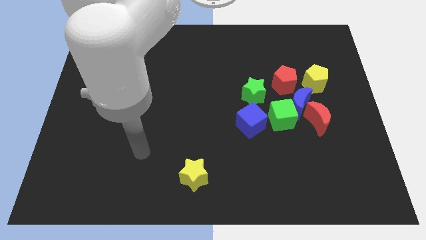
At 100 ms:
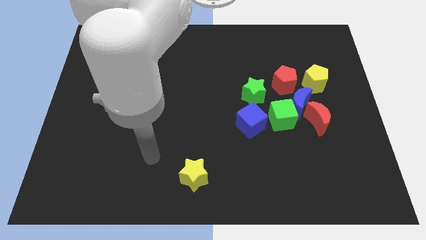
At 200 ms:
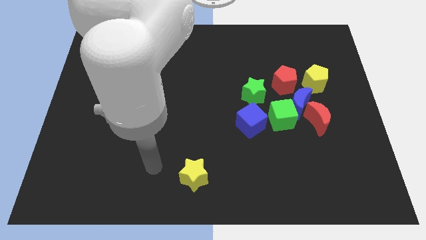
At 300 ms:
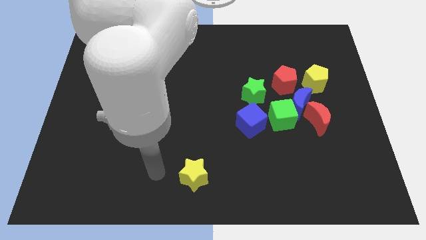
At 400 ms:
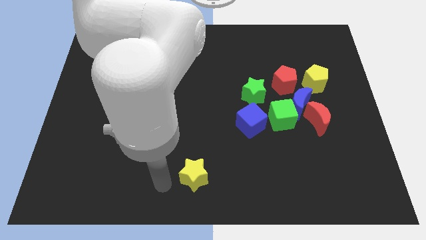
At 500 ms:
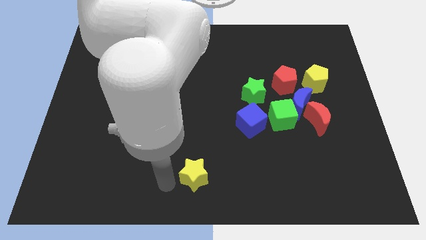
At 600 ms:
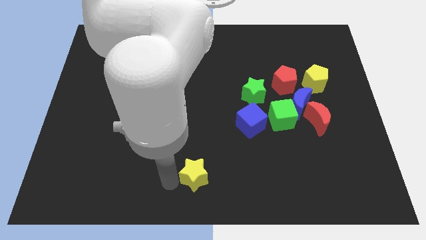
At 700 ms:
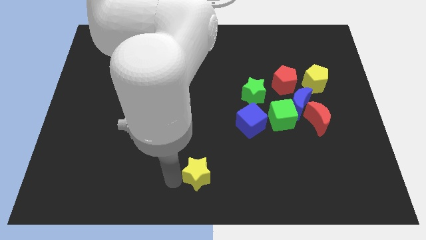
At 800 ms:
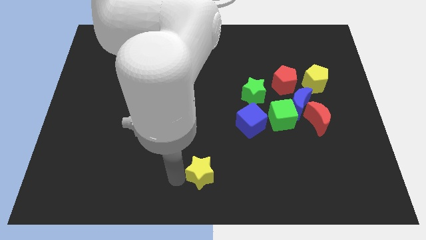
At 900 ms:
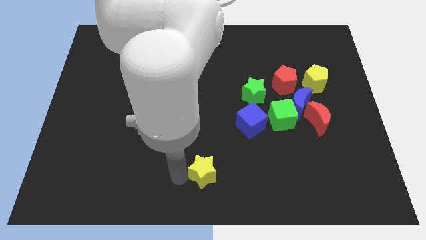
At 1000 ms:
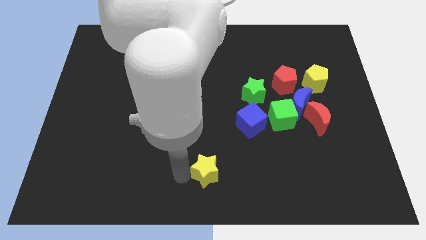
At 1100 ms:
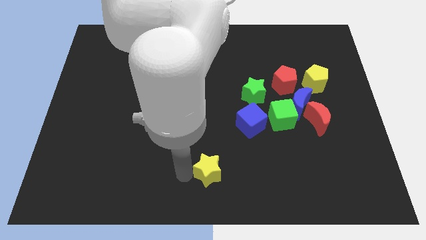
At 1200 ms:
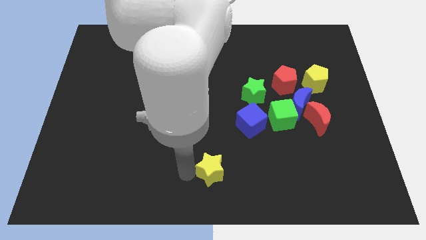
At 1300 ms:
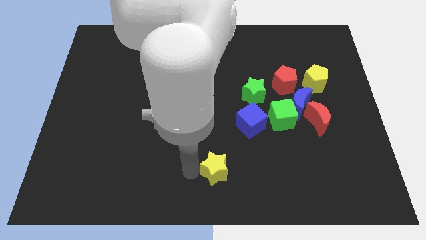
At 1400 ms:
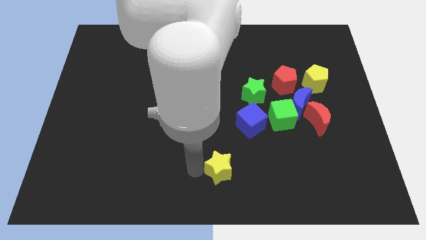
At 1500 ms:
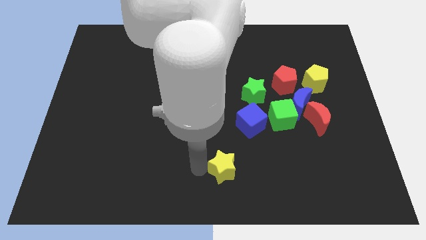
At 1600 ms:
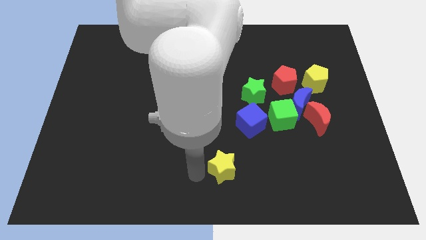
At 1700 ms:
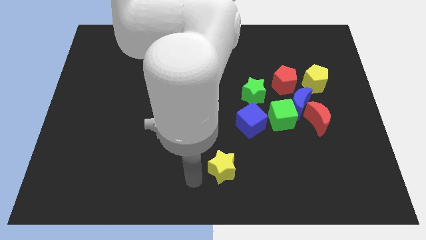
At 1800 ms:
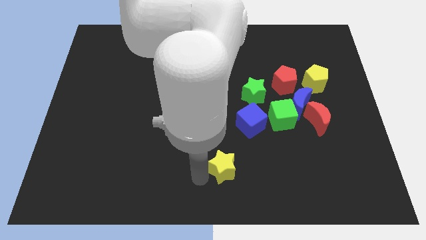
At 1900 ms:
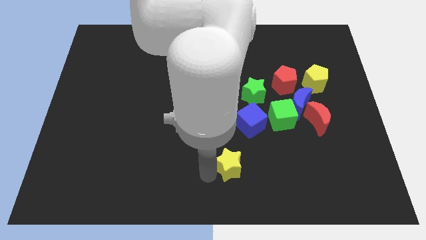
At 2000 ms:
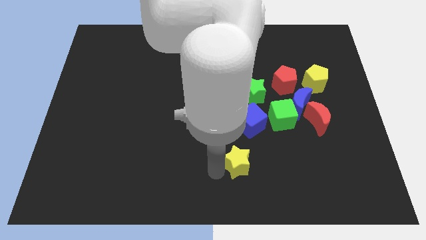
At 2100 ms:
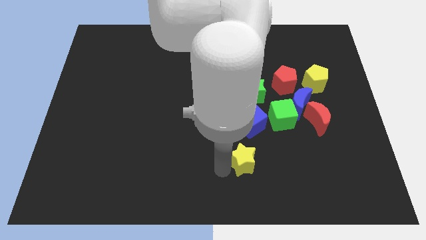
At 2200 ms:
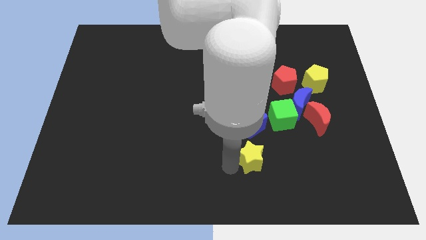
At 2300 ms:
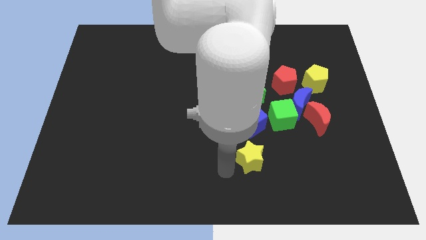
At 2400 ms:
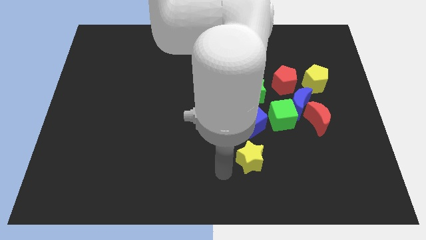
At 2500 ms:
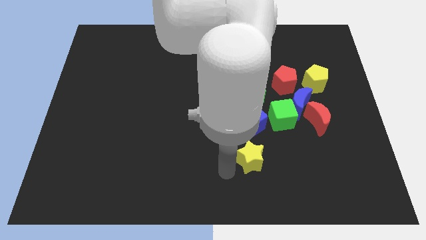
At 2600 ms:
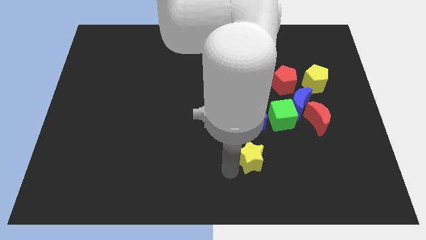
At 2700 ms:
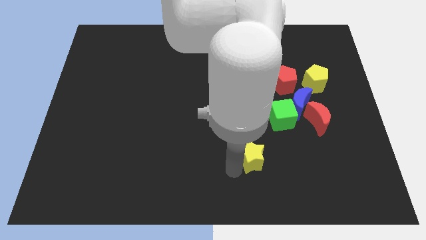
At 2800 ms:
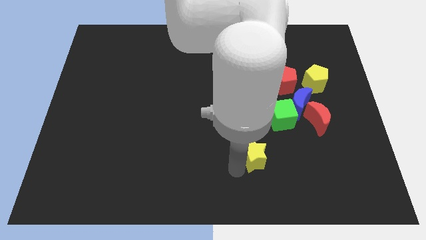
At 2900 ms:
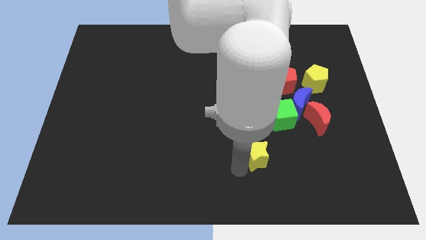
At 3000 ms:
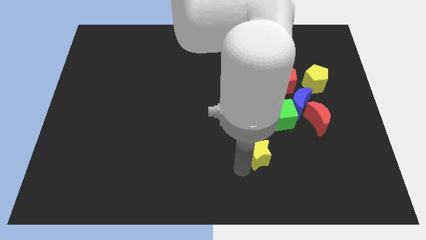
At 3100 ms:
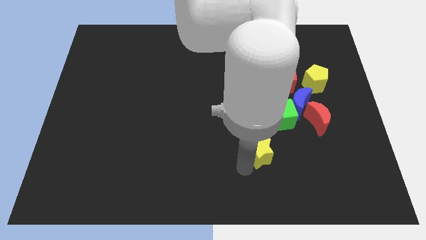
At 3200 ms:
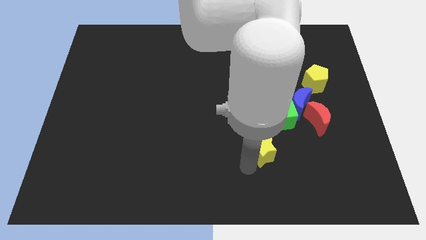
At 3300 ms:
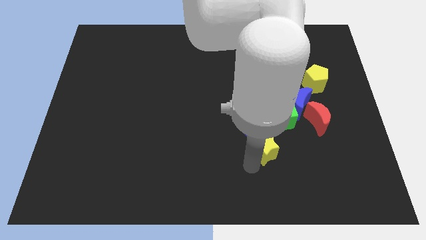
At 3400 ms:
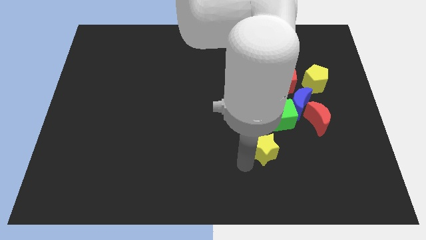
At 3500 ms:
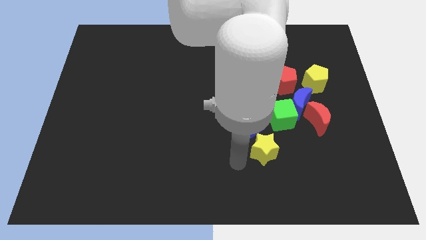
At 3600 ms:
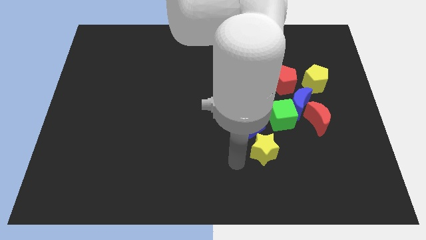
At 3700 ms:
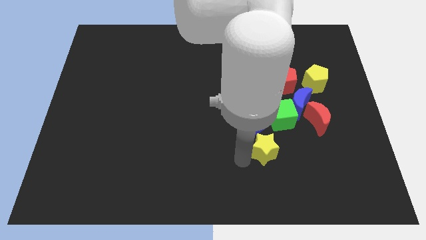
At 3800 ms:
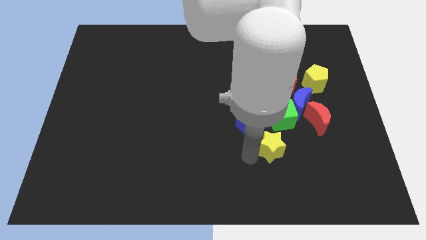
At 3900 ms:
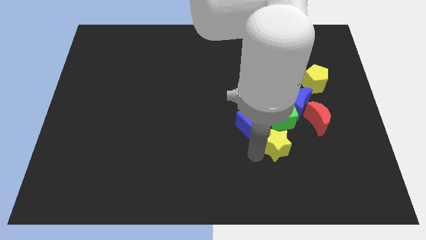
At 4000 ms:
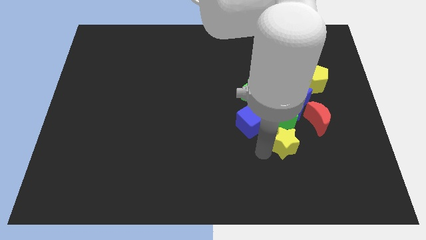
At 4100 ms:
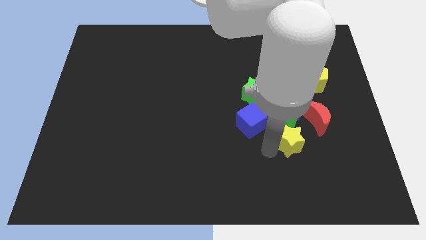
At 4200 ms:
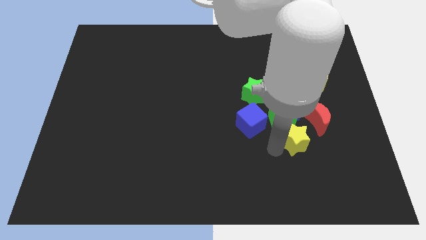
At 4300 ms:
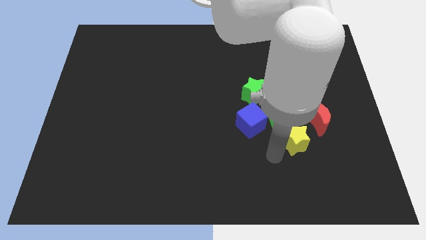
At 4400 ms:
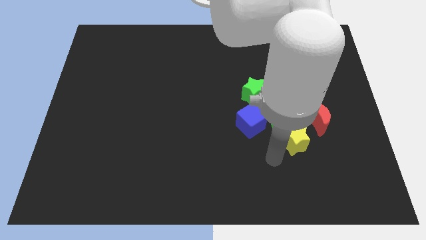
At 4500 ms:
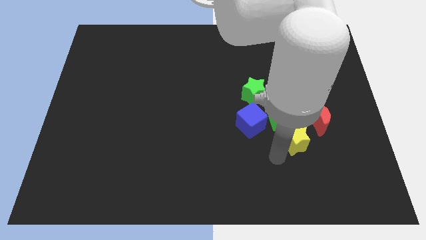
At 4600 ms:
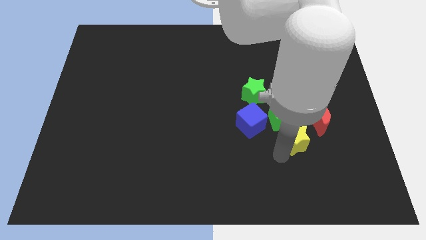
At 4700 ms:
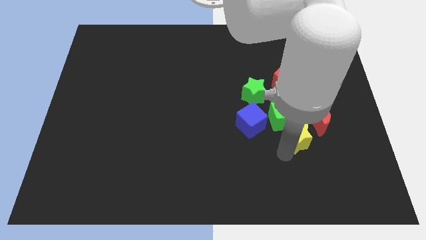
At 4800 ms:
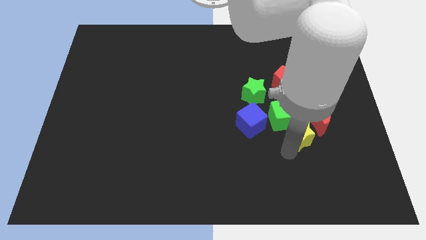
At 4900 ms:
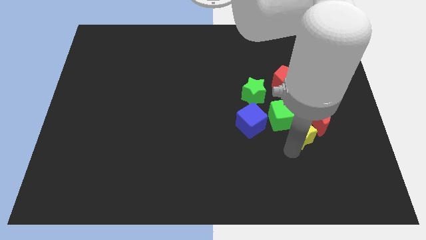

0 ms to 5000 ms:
put the yellow star next to the red moon

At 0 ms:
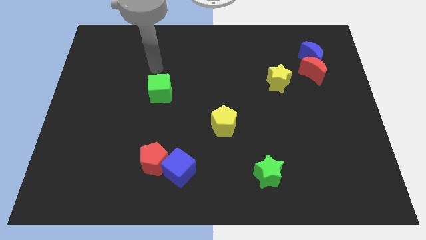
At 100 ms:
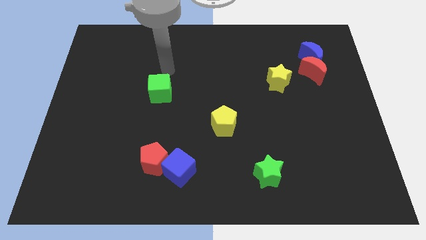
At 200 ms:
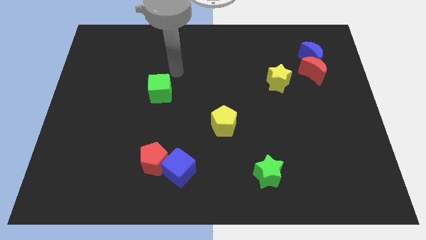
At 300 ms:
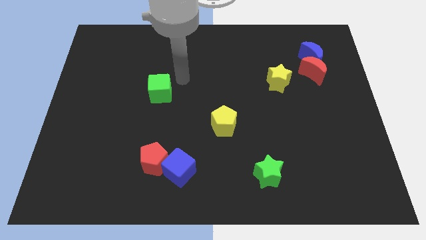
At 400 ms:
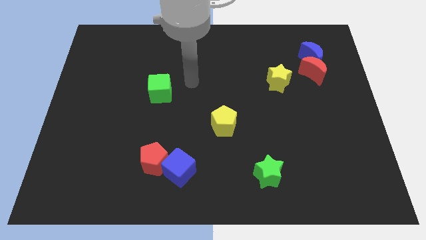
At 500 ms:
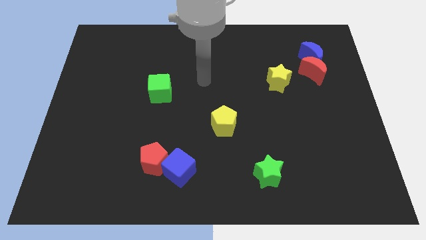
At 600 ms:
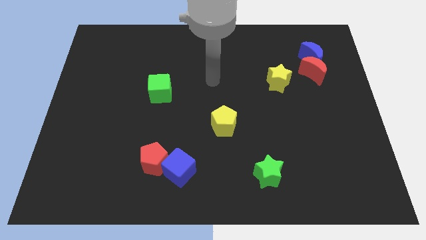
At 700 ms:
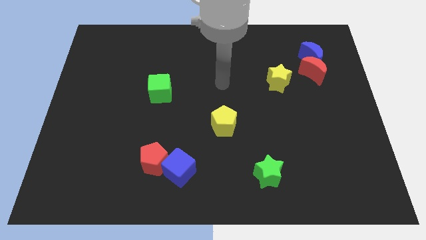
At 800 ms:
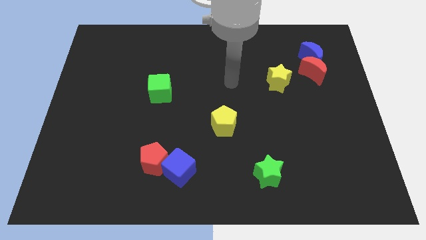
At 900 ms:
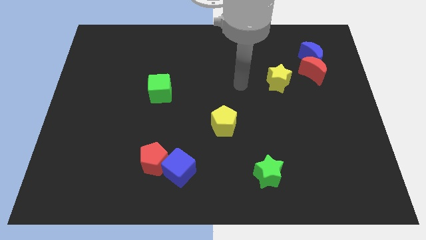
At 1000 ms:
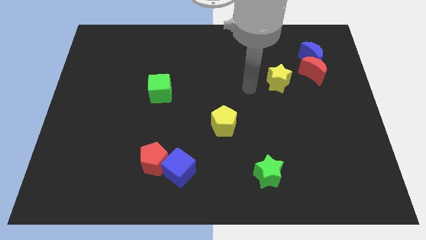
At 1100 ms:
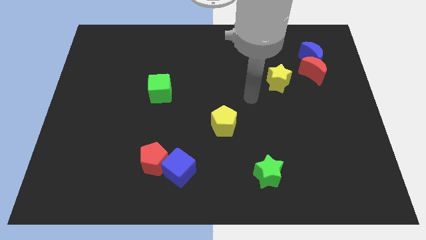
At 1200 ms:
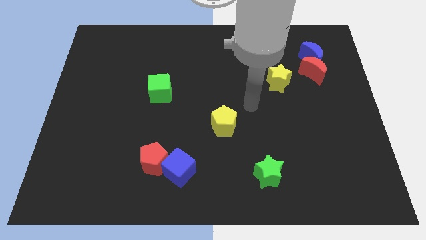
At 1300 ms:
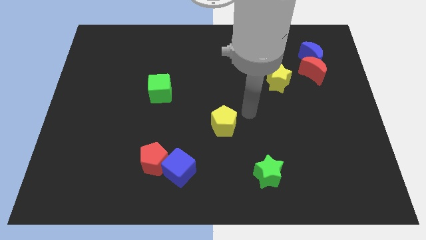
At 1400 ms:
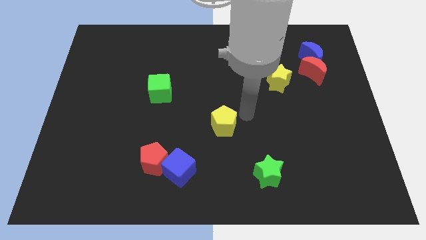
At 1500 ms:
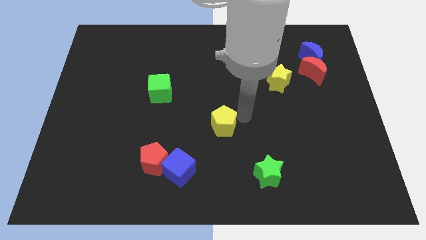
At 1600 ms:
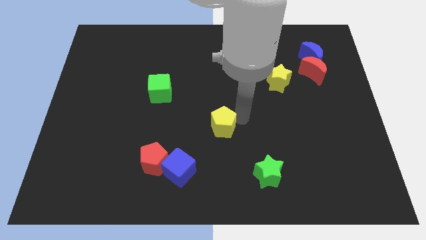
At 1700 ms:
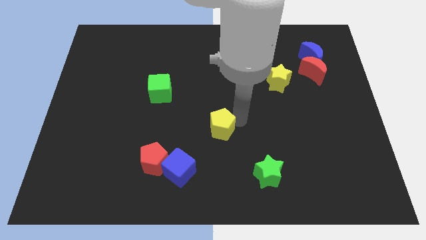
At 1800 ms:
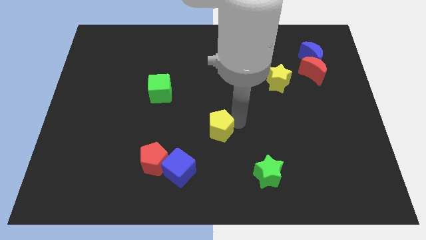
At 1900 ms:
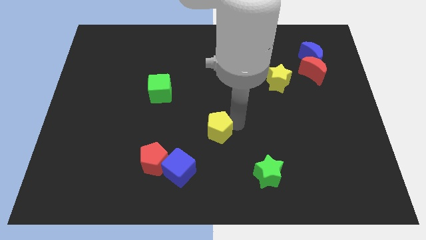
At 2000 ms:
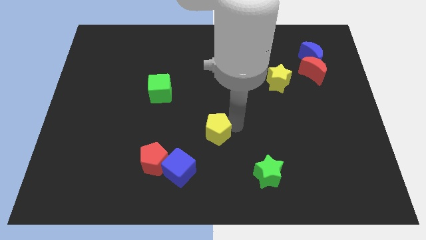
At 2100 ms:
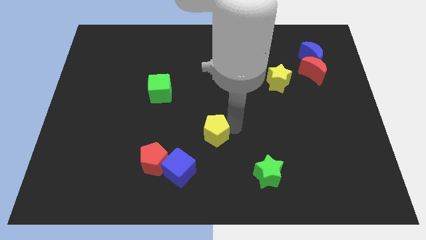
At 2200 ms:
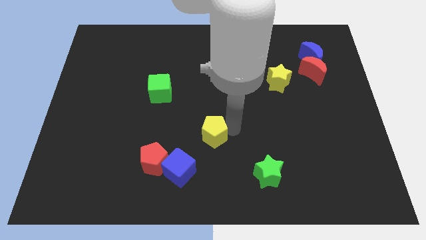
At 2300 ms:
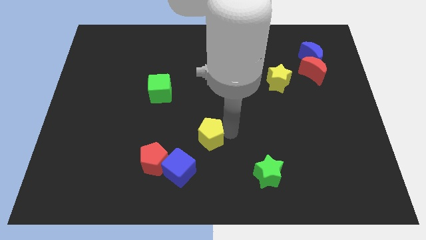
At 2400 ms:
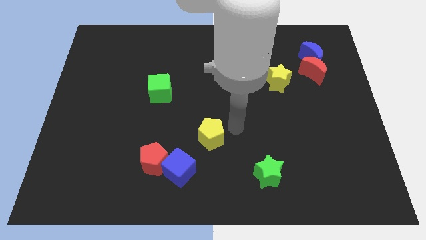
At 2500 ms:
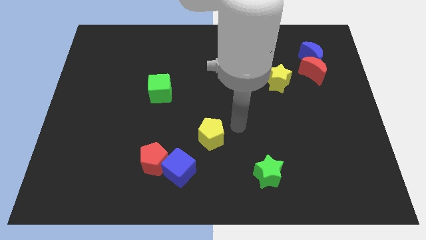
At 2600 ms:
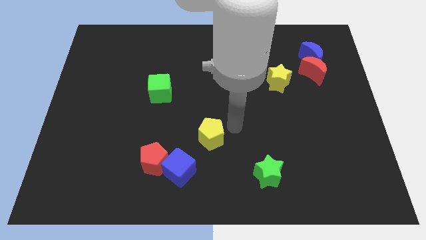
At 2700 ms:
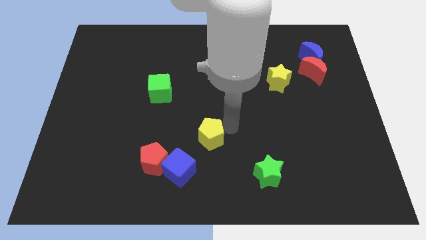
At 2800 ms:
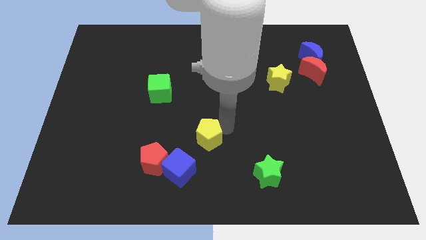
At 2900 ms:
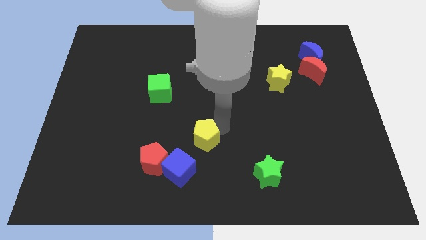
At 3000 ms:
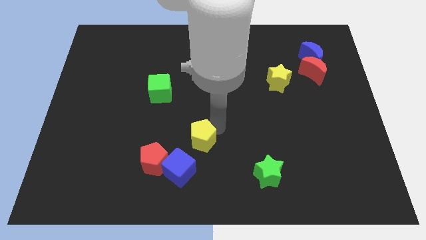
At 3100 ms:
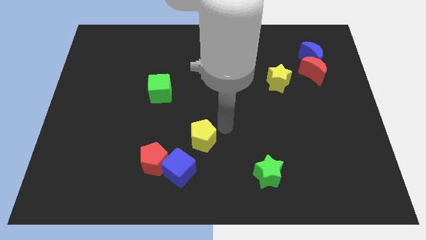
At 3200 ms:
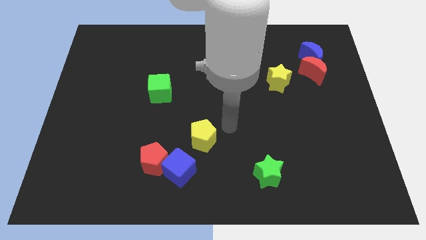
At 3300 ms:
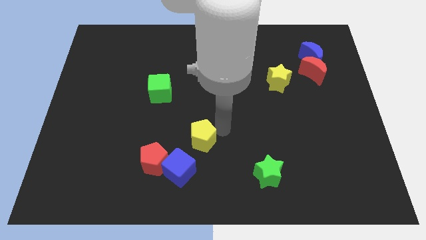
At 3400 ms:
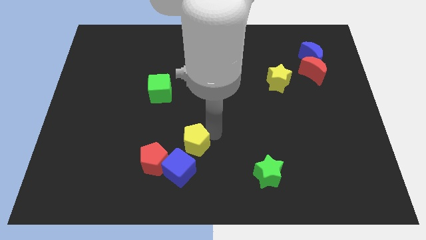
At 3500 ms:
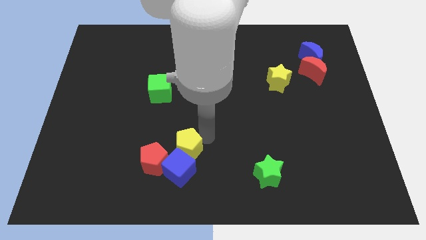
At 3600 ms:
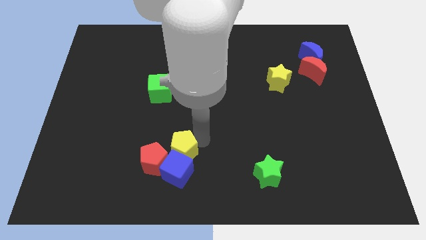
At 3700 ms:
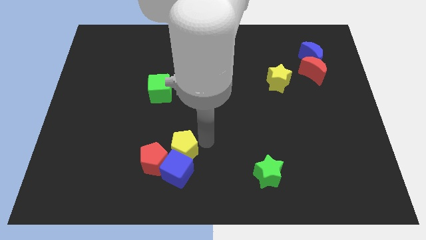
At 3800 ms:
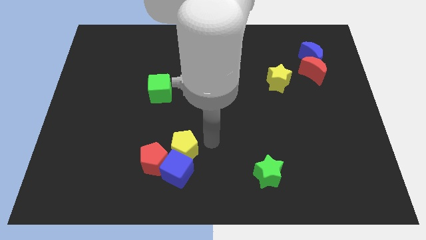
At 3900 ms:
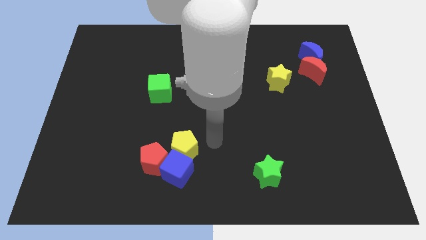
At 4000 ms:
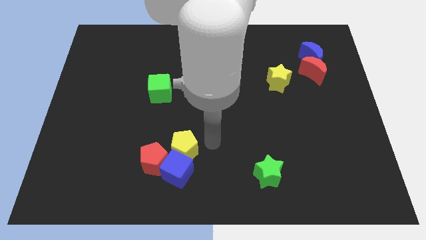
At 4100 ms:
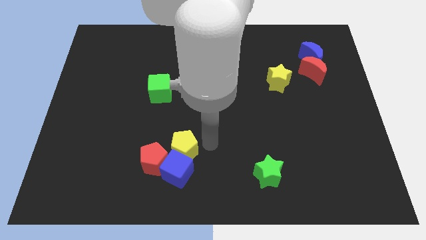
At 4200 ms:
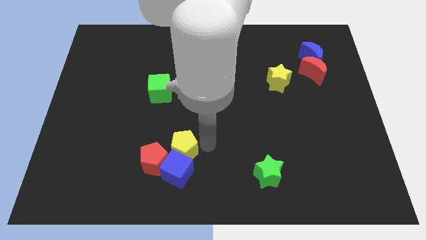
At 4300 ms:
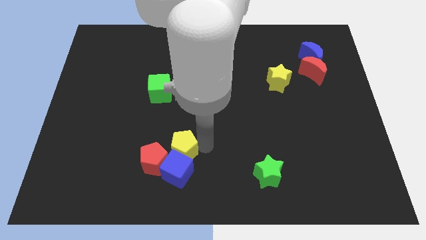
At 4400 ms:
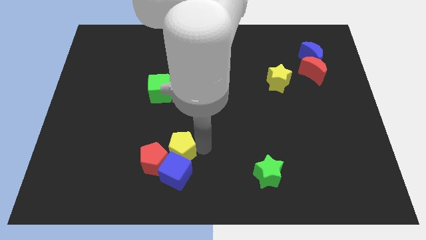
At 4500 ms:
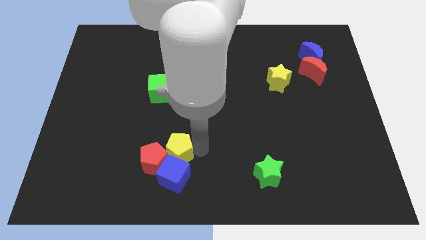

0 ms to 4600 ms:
move the yellow pentagon next to the red pentagon
